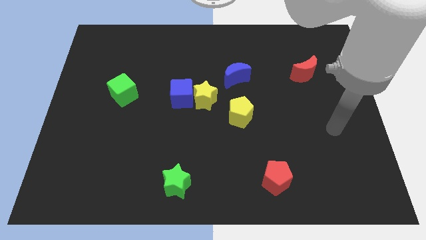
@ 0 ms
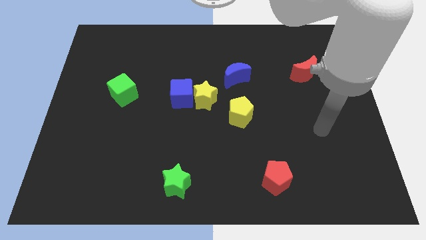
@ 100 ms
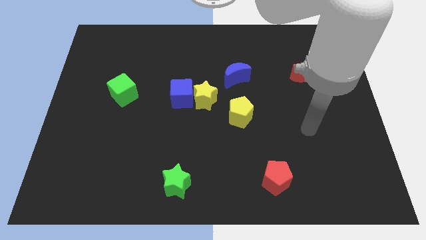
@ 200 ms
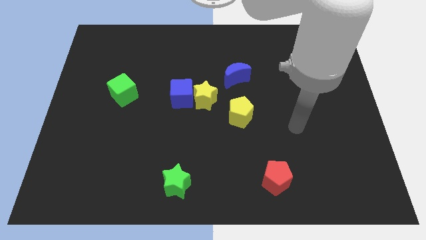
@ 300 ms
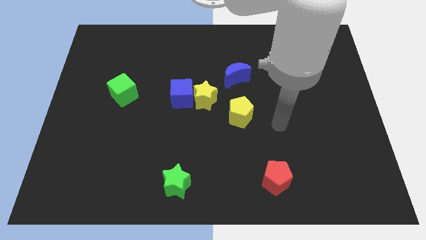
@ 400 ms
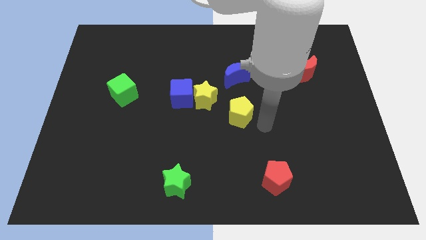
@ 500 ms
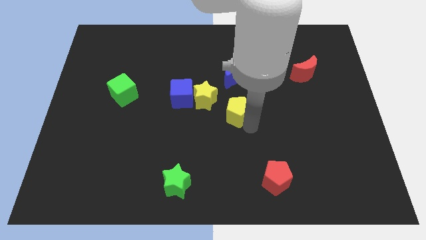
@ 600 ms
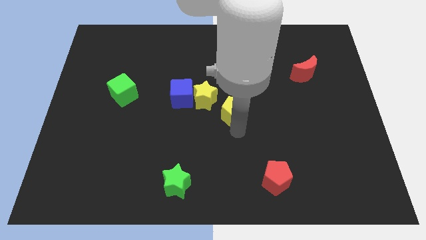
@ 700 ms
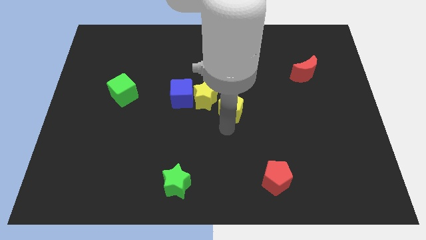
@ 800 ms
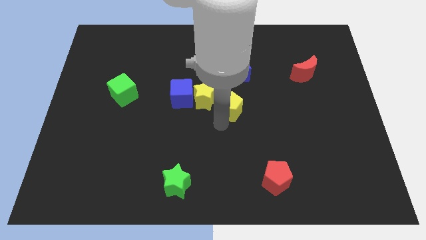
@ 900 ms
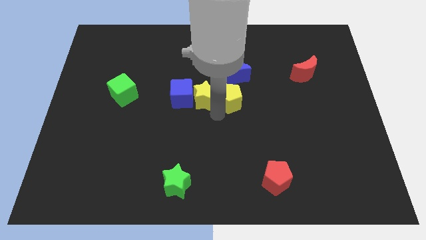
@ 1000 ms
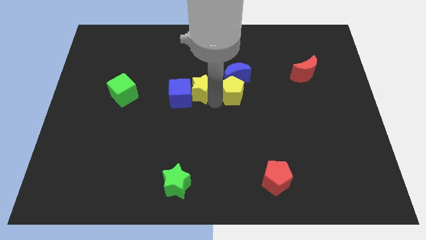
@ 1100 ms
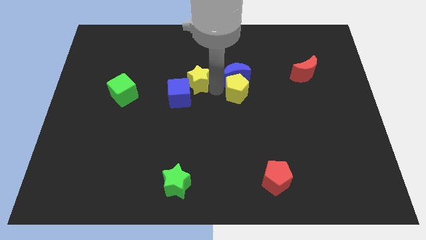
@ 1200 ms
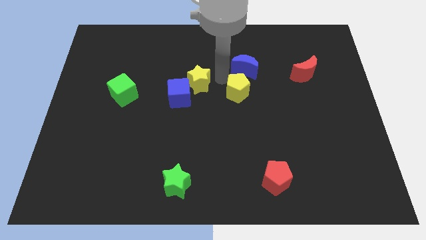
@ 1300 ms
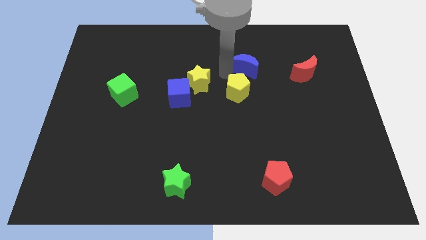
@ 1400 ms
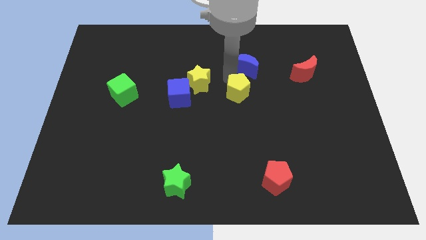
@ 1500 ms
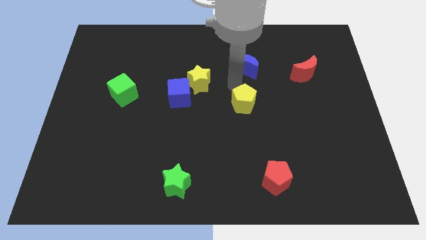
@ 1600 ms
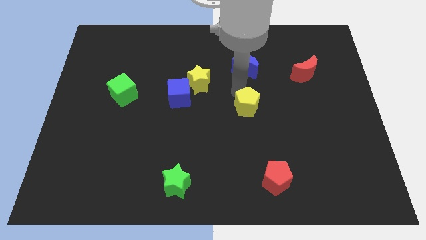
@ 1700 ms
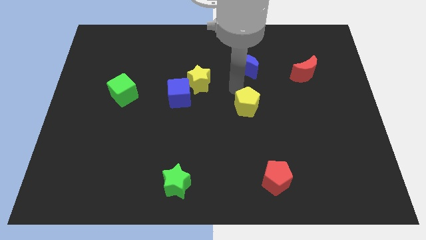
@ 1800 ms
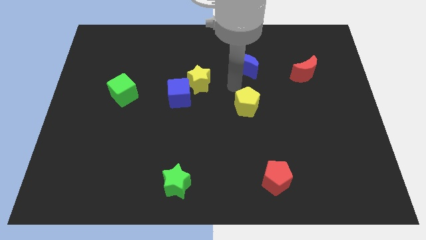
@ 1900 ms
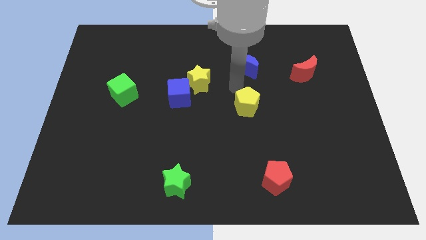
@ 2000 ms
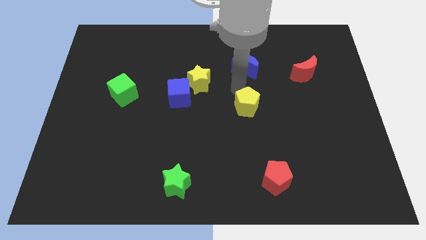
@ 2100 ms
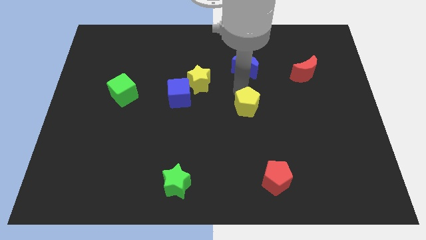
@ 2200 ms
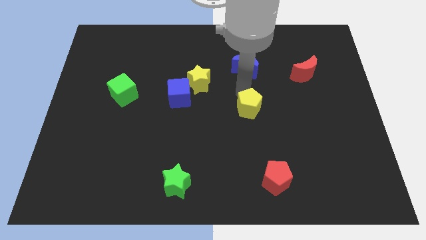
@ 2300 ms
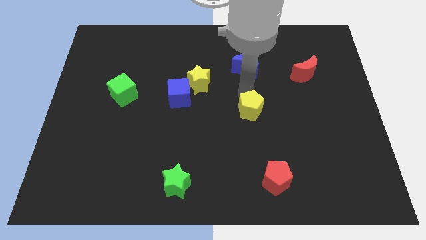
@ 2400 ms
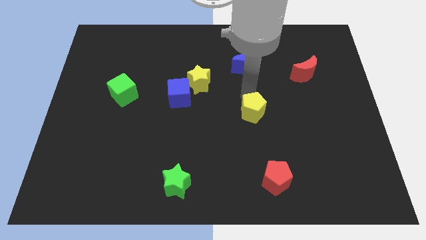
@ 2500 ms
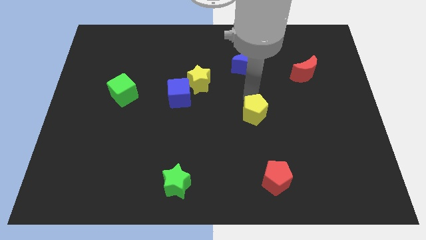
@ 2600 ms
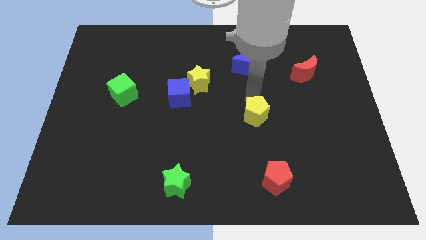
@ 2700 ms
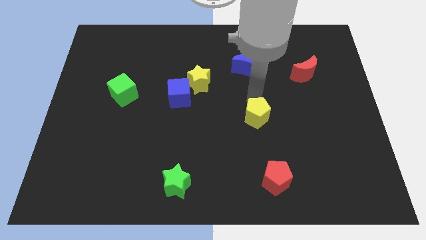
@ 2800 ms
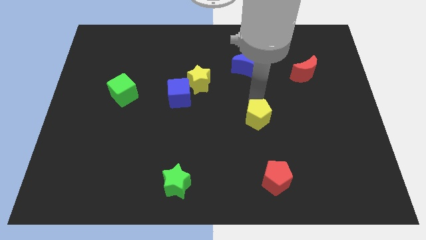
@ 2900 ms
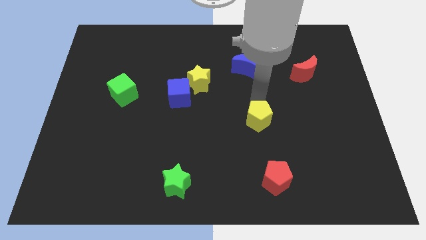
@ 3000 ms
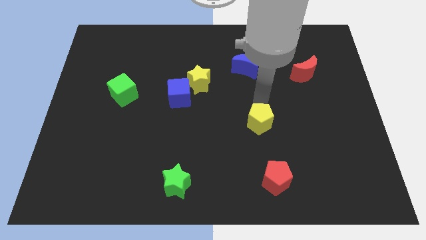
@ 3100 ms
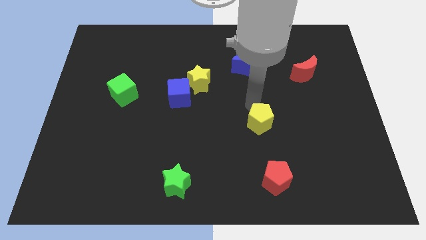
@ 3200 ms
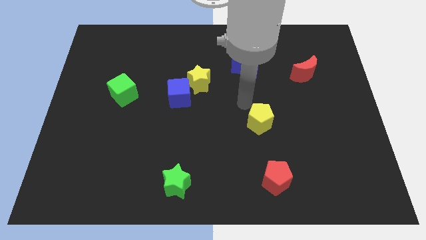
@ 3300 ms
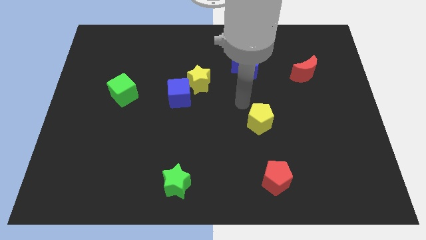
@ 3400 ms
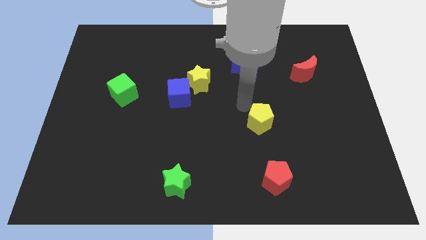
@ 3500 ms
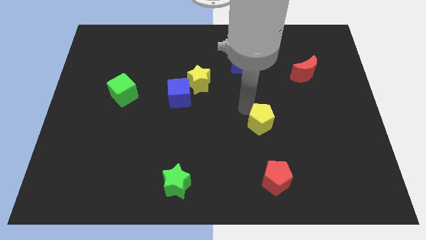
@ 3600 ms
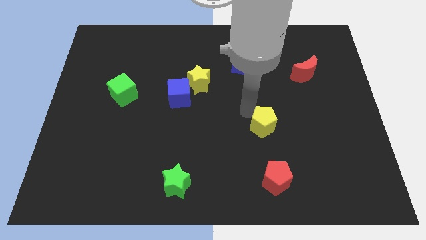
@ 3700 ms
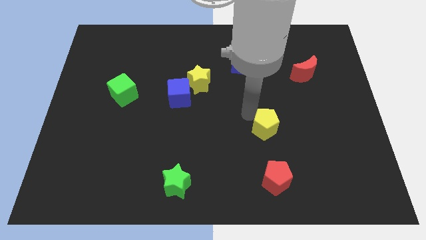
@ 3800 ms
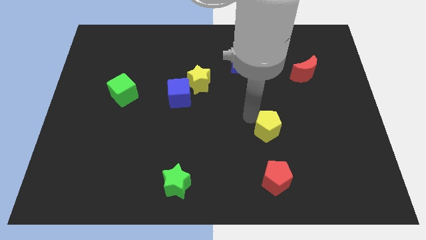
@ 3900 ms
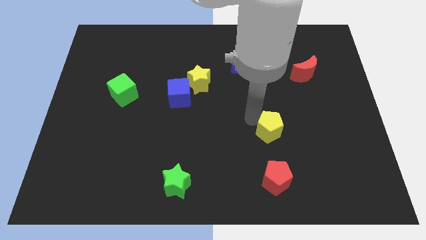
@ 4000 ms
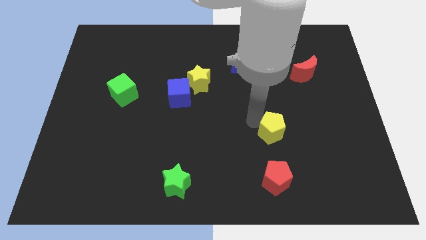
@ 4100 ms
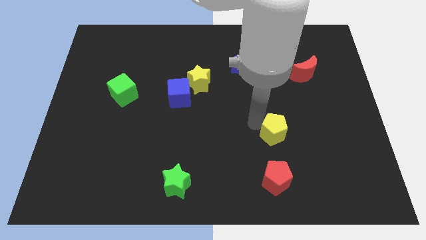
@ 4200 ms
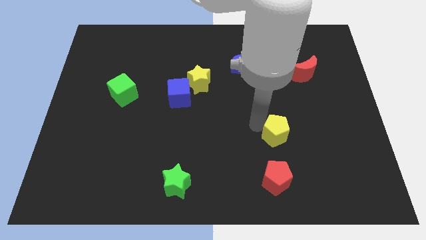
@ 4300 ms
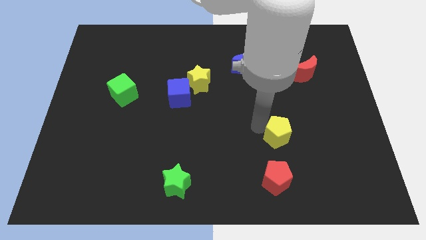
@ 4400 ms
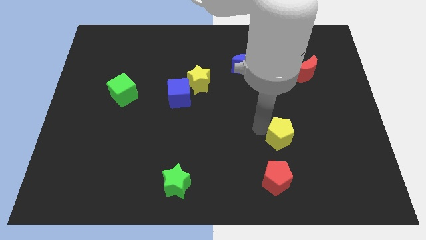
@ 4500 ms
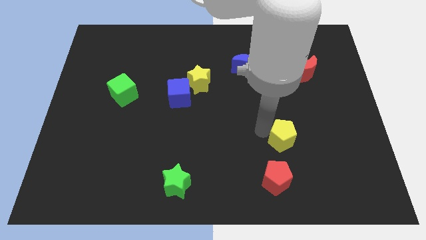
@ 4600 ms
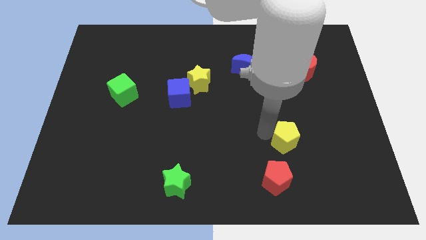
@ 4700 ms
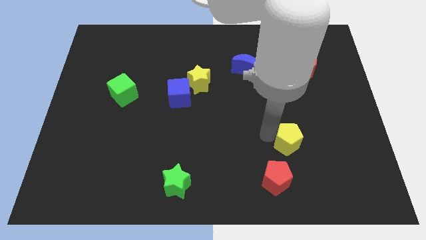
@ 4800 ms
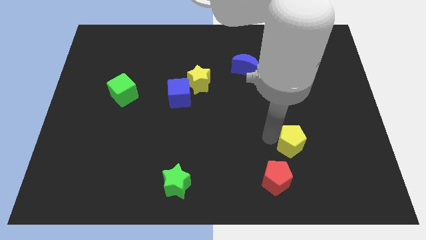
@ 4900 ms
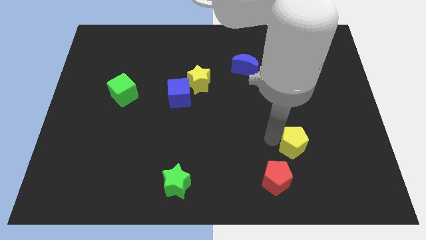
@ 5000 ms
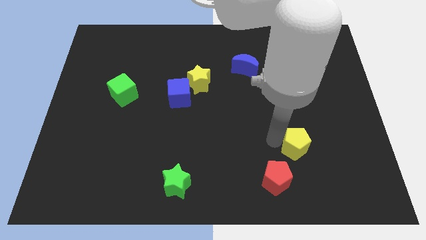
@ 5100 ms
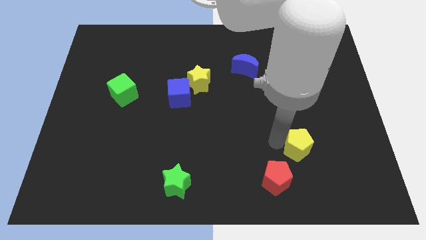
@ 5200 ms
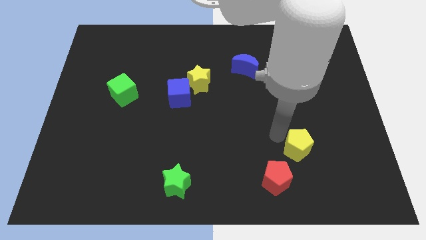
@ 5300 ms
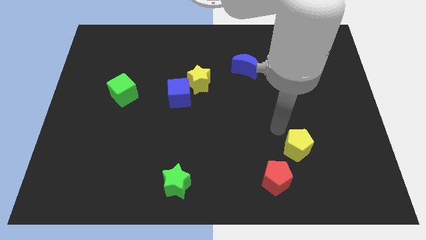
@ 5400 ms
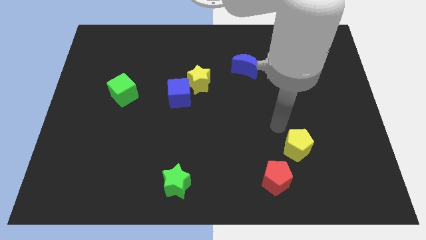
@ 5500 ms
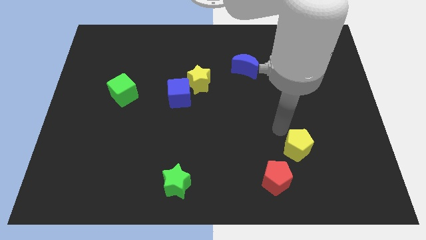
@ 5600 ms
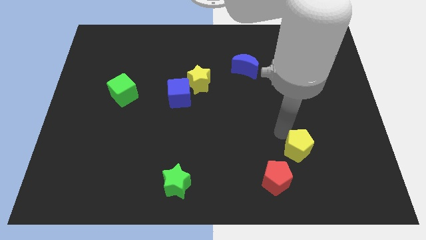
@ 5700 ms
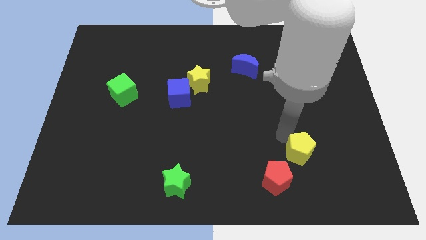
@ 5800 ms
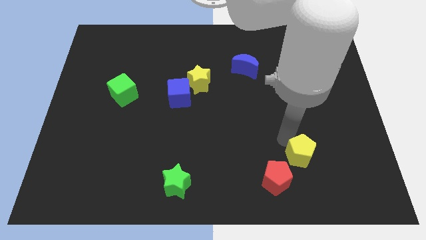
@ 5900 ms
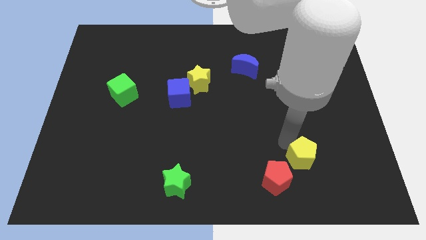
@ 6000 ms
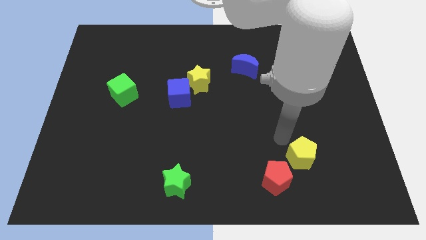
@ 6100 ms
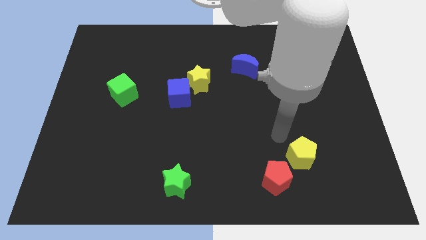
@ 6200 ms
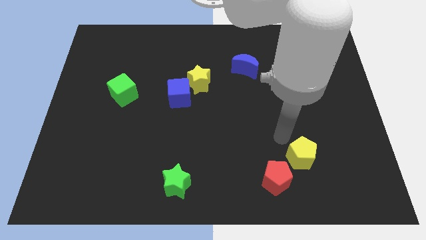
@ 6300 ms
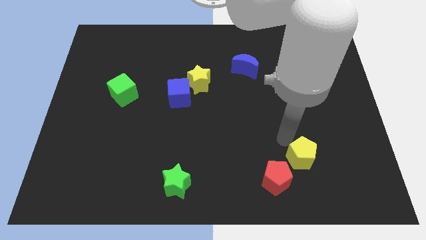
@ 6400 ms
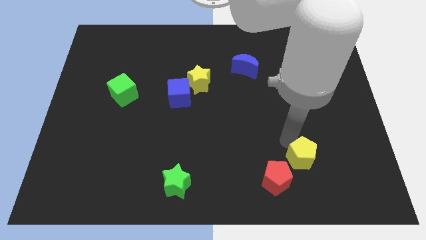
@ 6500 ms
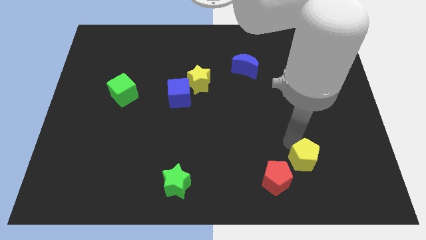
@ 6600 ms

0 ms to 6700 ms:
slide the yellow pentagon to the right of the red pentagon
